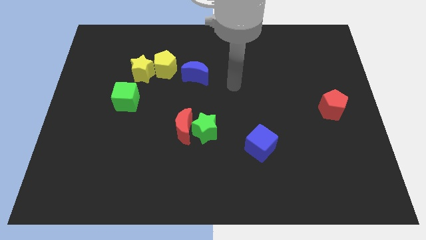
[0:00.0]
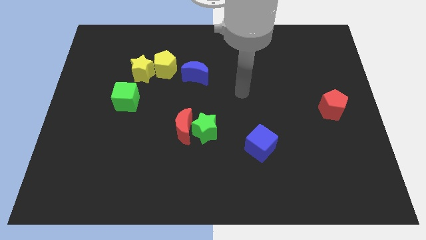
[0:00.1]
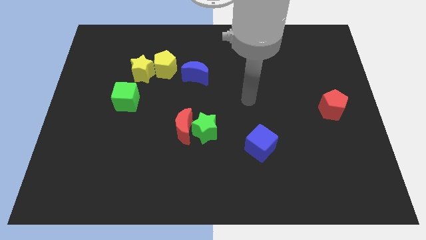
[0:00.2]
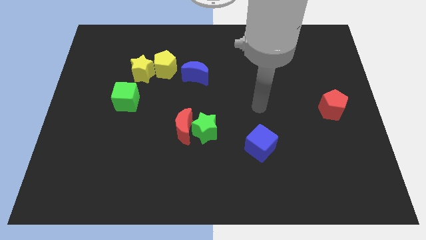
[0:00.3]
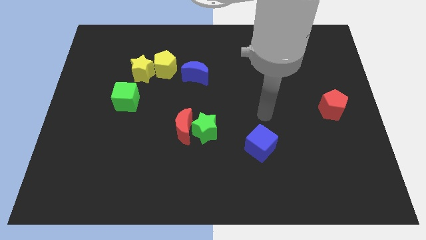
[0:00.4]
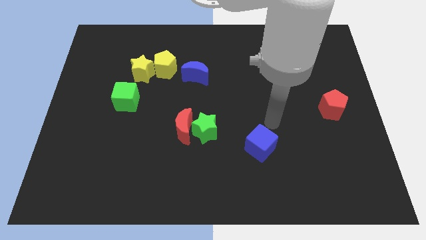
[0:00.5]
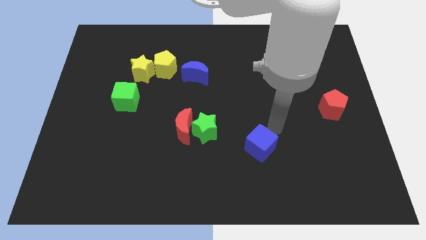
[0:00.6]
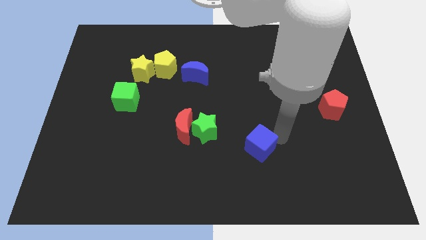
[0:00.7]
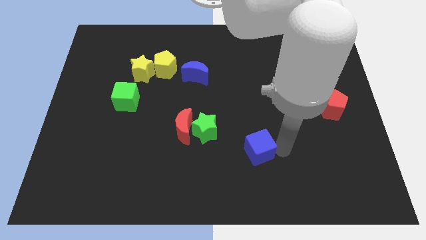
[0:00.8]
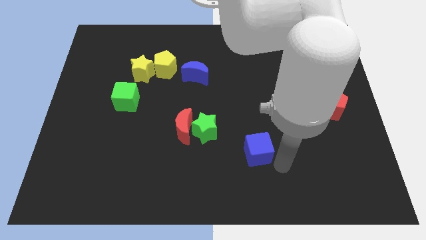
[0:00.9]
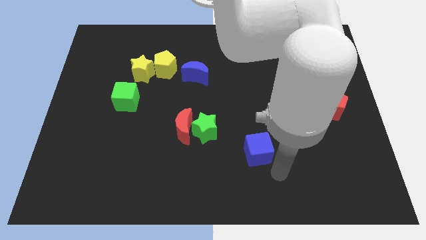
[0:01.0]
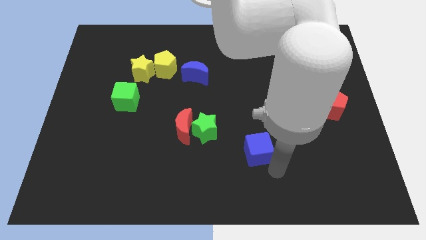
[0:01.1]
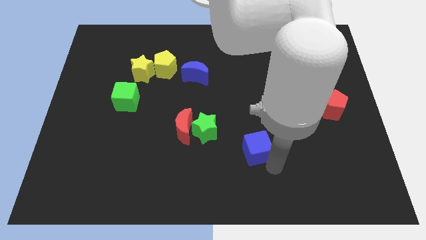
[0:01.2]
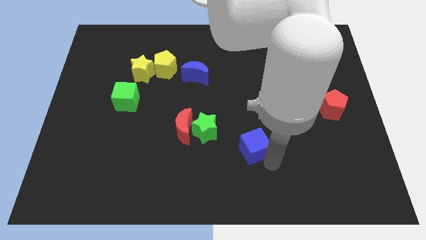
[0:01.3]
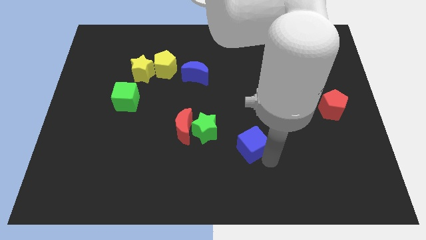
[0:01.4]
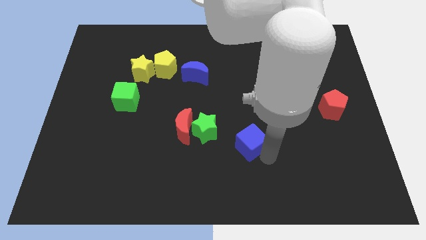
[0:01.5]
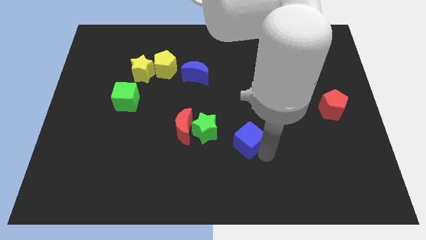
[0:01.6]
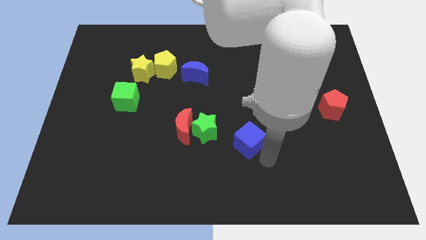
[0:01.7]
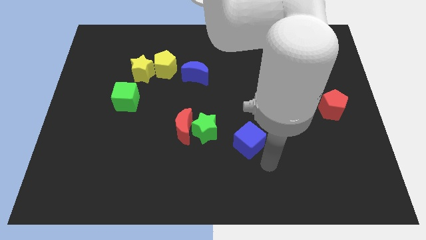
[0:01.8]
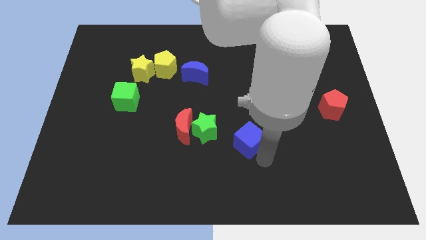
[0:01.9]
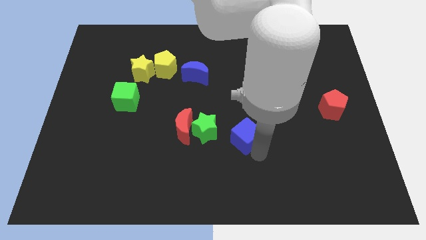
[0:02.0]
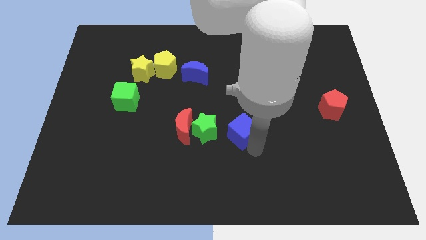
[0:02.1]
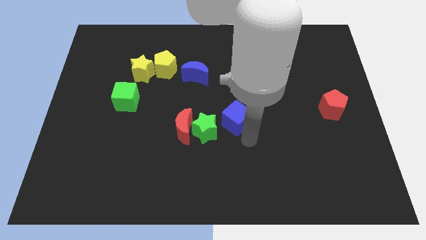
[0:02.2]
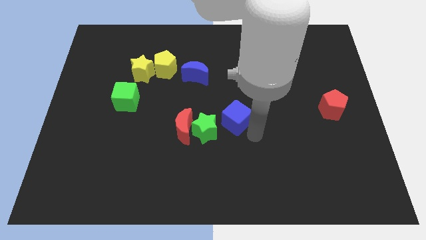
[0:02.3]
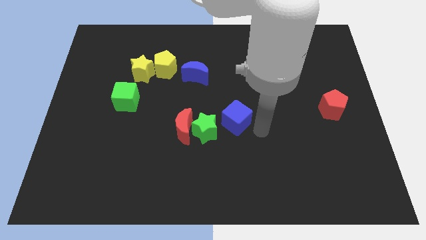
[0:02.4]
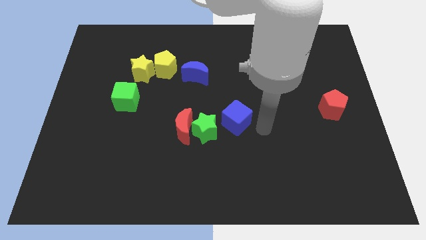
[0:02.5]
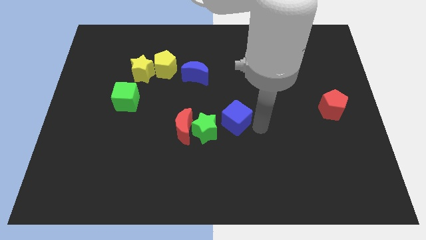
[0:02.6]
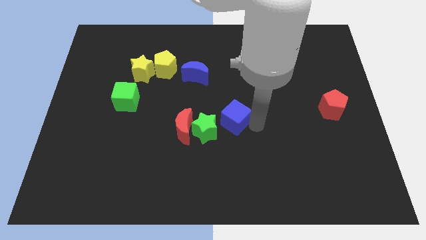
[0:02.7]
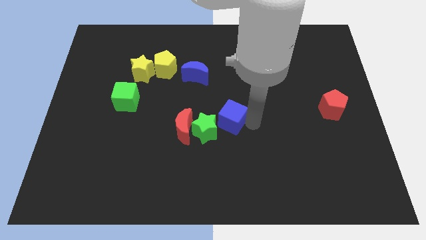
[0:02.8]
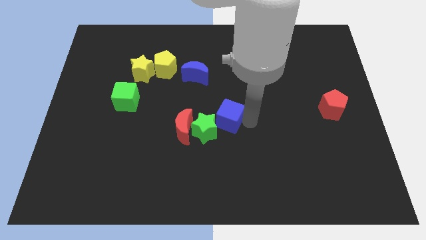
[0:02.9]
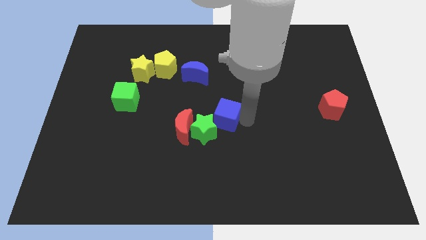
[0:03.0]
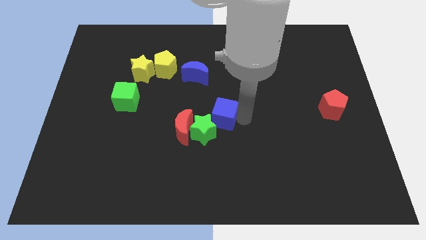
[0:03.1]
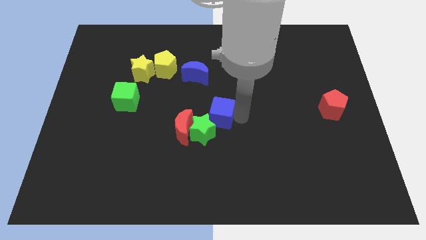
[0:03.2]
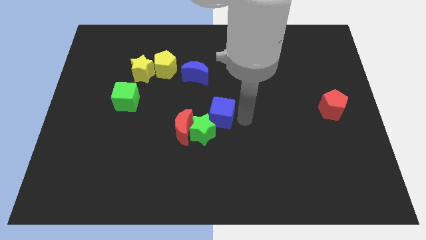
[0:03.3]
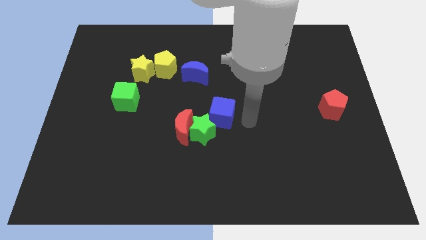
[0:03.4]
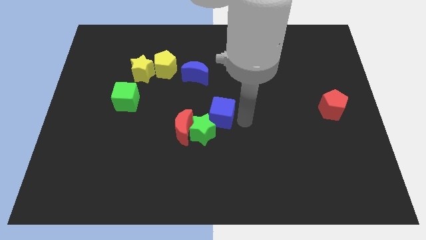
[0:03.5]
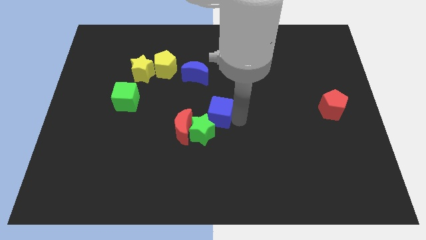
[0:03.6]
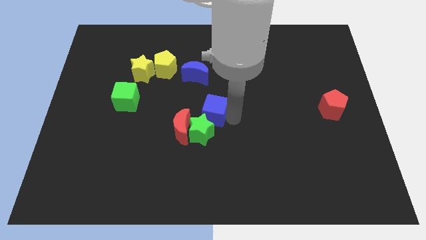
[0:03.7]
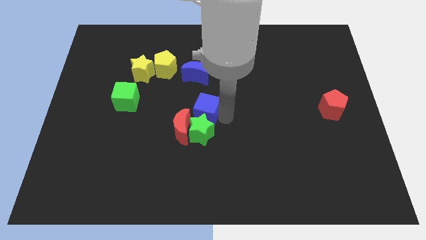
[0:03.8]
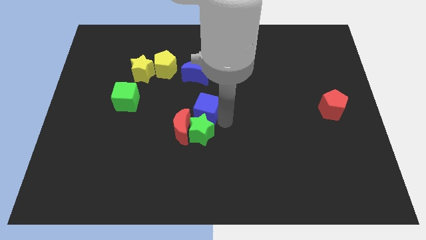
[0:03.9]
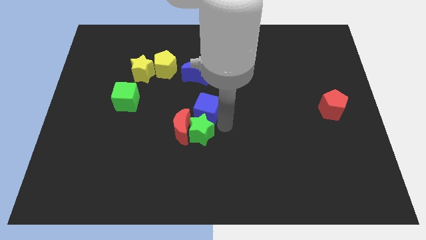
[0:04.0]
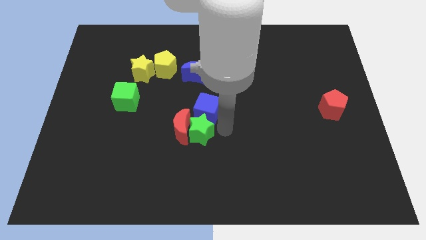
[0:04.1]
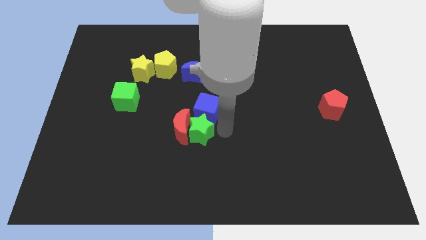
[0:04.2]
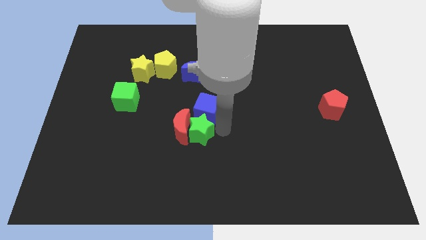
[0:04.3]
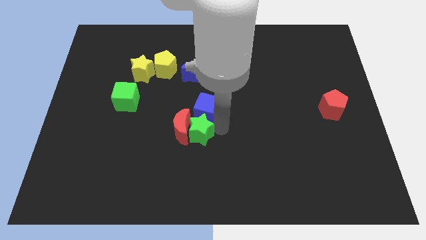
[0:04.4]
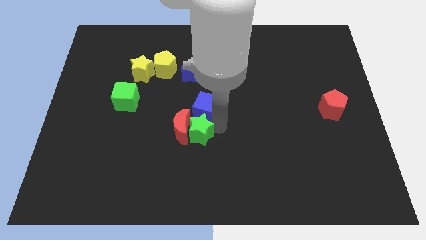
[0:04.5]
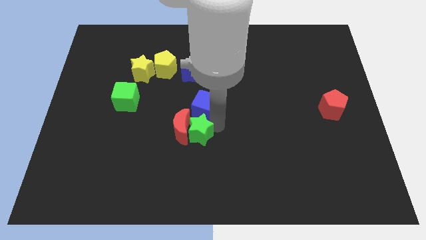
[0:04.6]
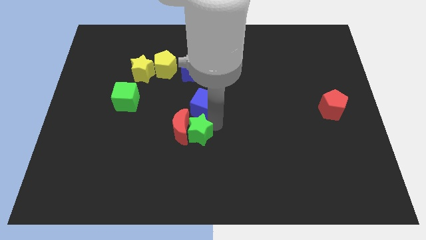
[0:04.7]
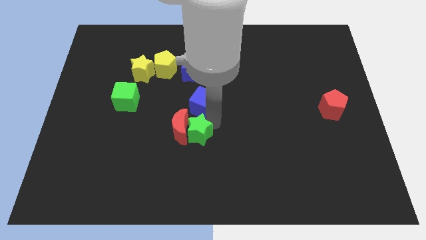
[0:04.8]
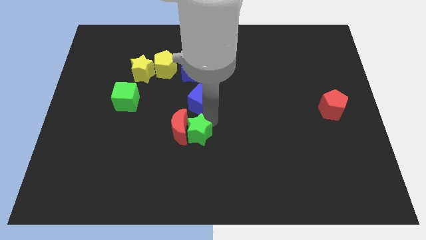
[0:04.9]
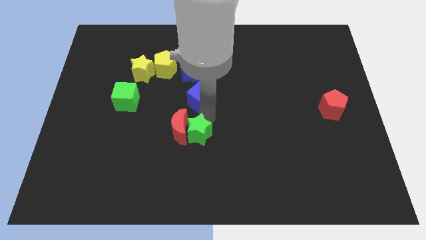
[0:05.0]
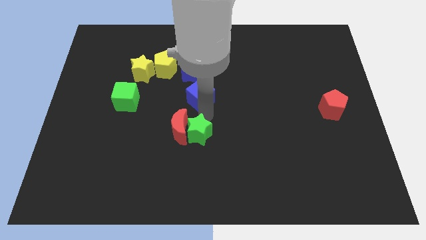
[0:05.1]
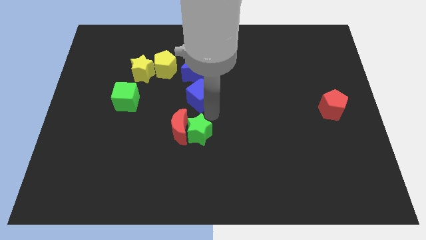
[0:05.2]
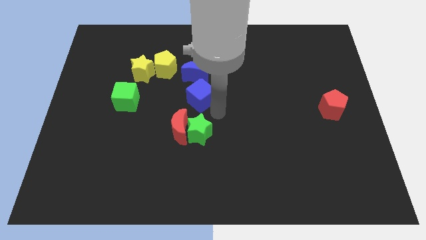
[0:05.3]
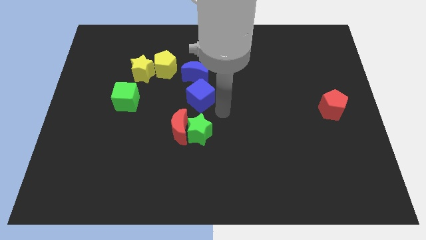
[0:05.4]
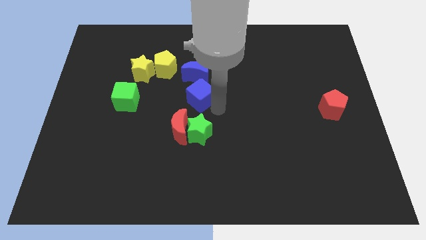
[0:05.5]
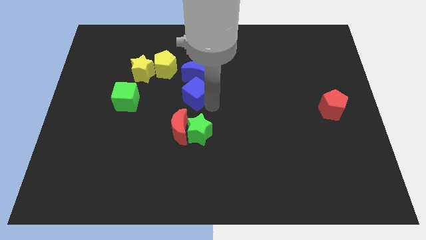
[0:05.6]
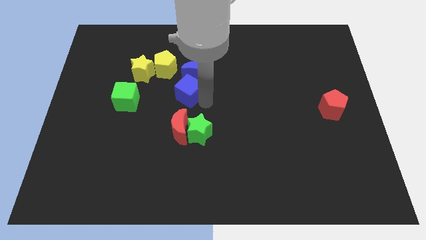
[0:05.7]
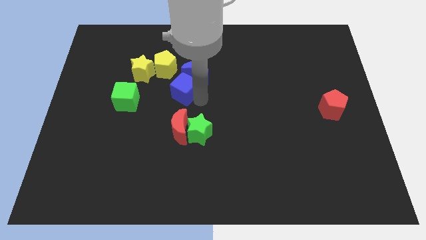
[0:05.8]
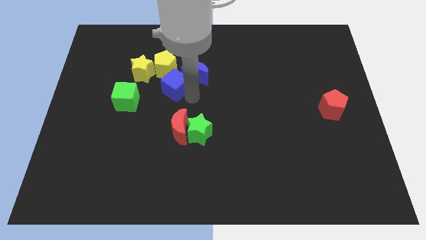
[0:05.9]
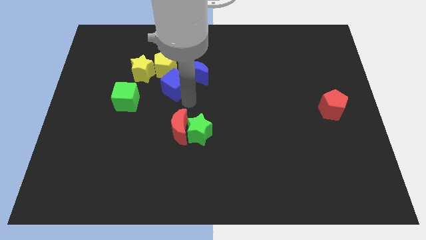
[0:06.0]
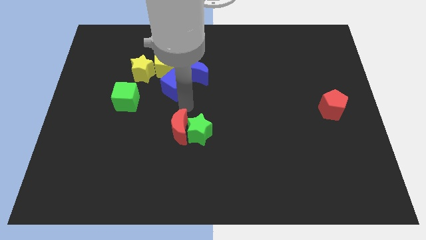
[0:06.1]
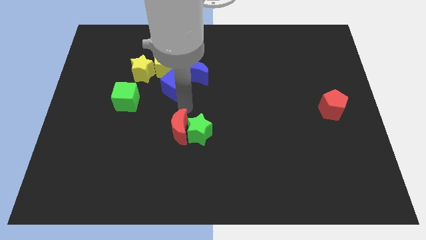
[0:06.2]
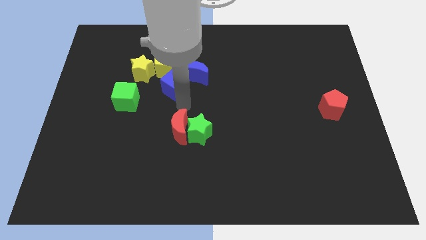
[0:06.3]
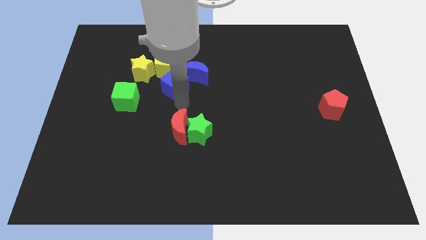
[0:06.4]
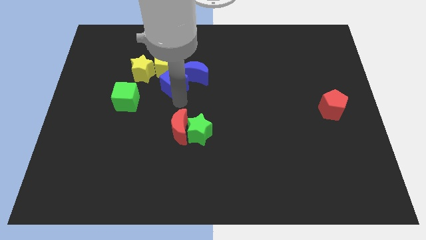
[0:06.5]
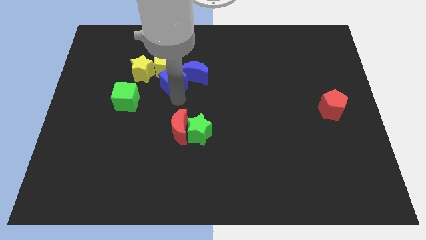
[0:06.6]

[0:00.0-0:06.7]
move the blue cube next to the yellow pentagon
